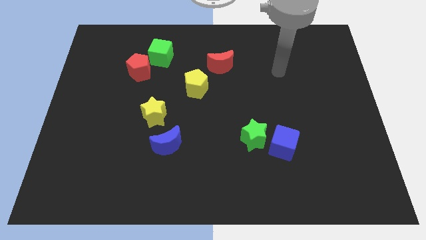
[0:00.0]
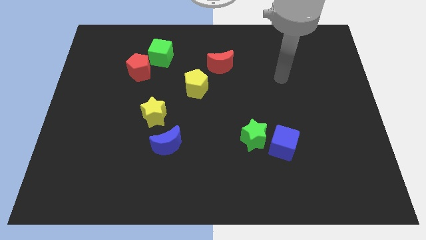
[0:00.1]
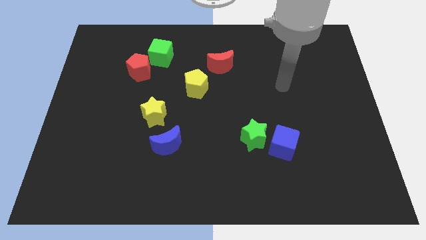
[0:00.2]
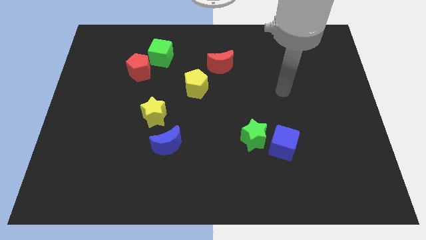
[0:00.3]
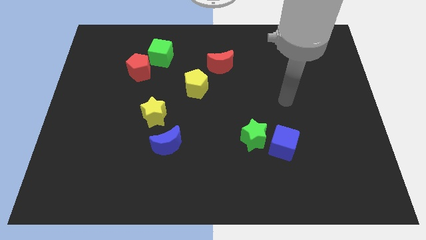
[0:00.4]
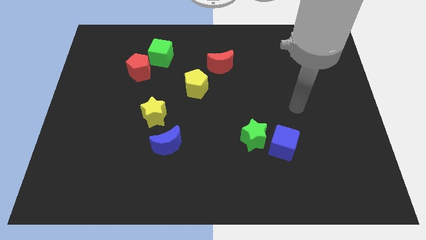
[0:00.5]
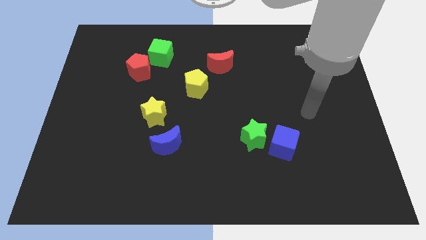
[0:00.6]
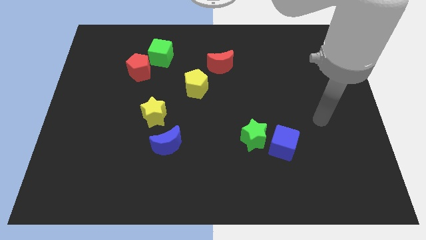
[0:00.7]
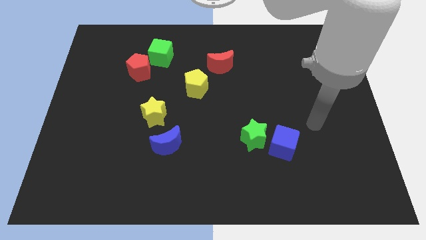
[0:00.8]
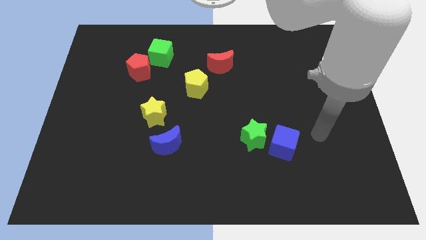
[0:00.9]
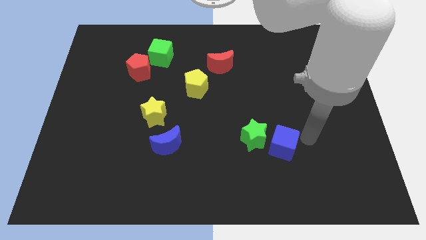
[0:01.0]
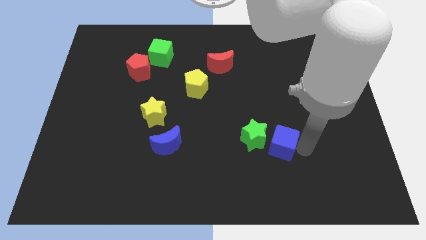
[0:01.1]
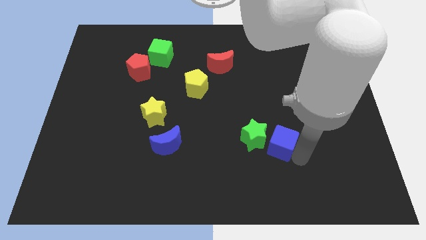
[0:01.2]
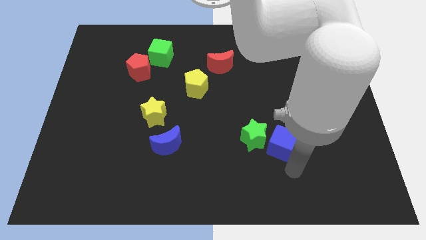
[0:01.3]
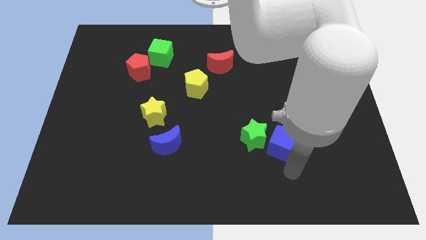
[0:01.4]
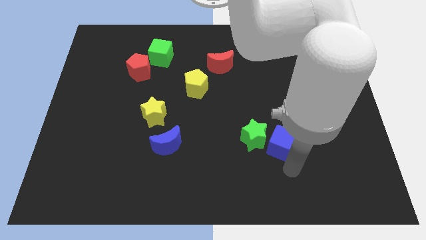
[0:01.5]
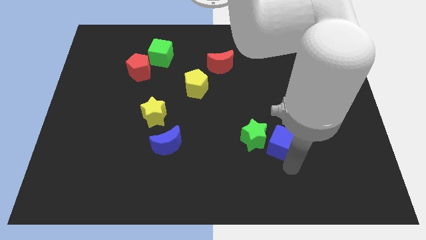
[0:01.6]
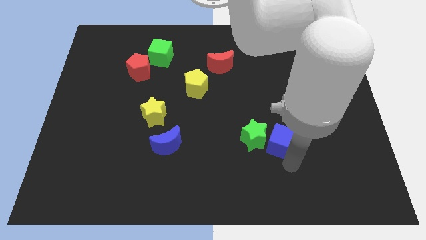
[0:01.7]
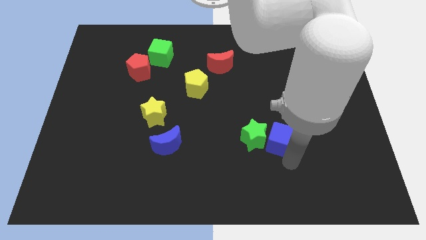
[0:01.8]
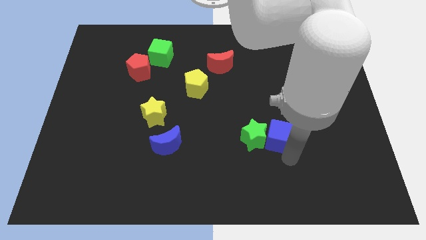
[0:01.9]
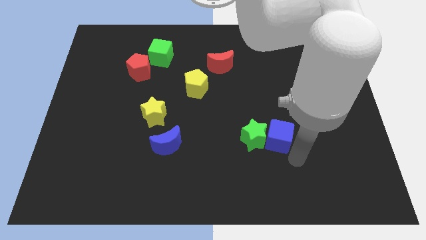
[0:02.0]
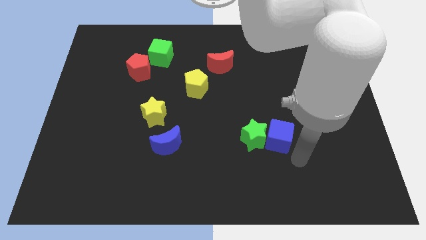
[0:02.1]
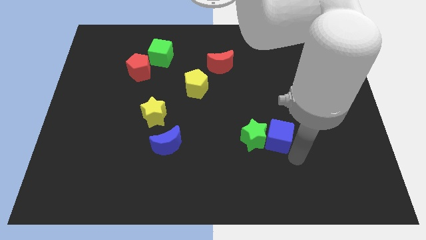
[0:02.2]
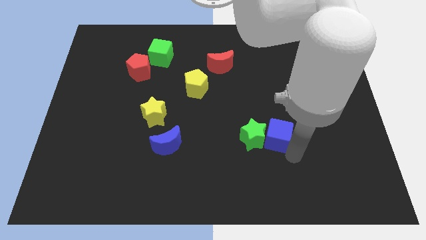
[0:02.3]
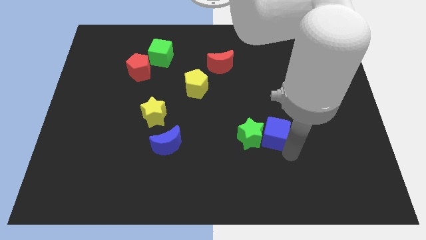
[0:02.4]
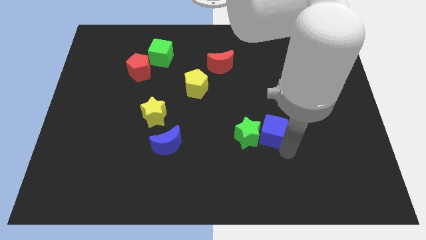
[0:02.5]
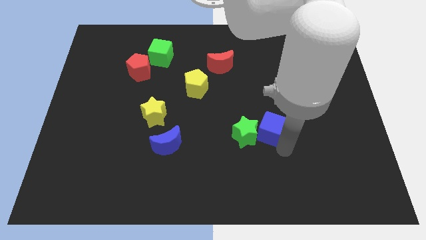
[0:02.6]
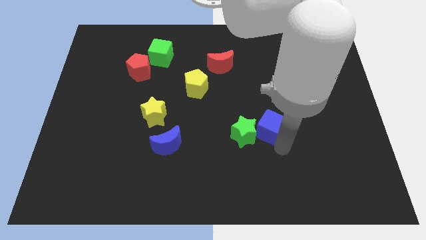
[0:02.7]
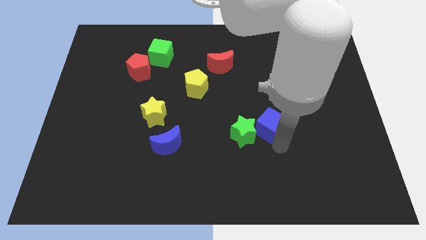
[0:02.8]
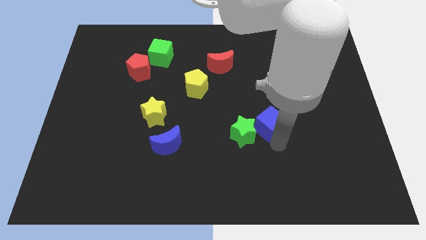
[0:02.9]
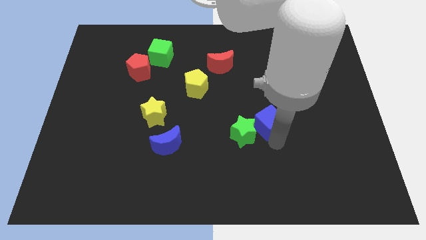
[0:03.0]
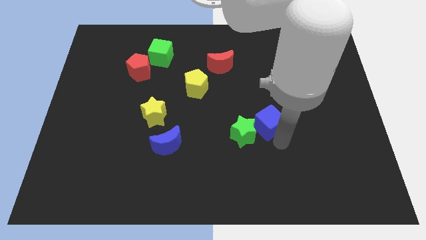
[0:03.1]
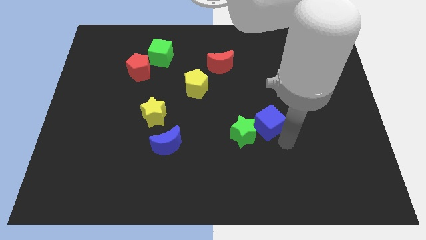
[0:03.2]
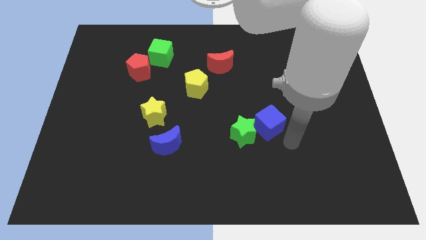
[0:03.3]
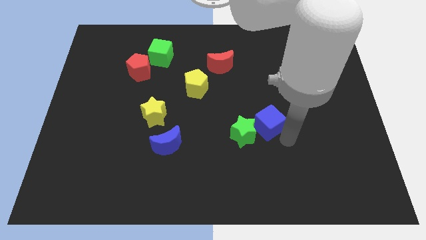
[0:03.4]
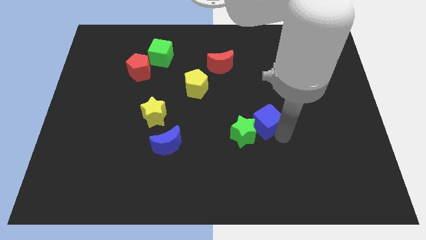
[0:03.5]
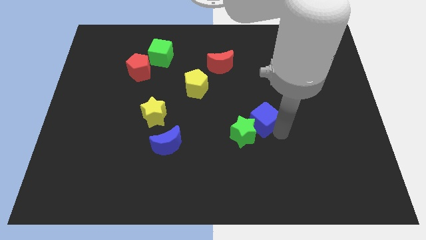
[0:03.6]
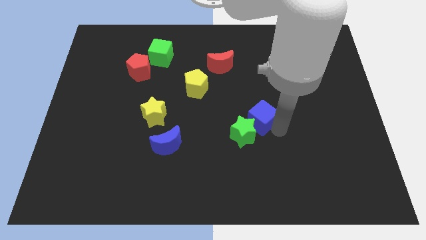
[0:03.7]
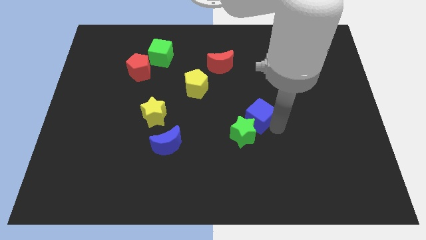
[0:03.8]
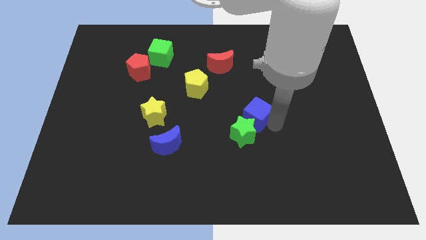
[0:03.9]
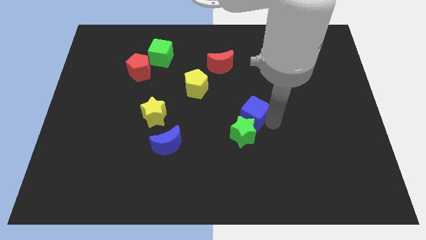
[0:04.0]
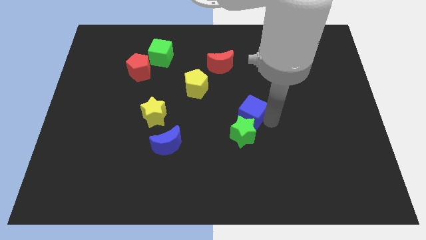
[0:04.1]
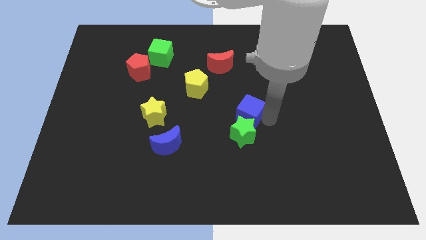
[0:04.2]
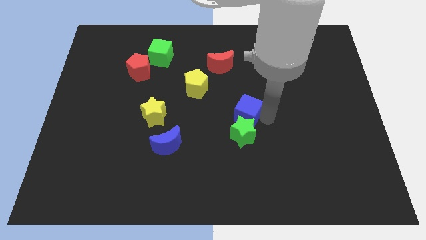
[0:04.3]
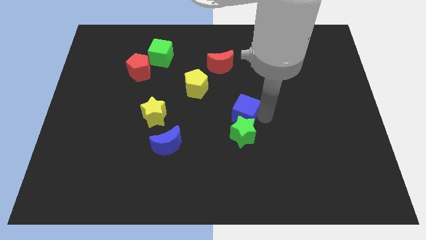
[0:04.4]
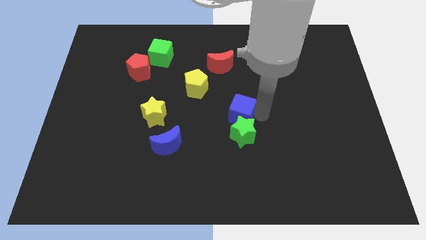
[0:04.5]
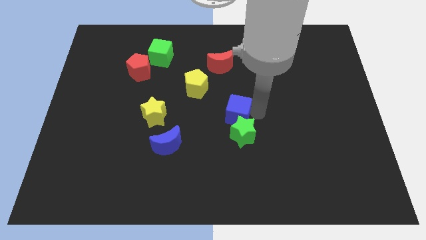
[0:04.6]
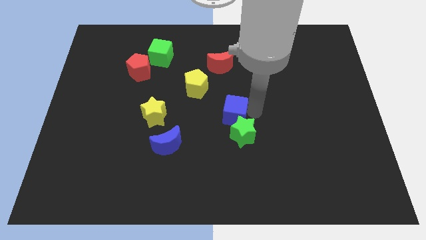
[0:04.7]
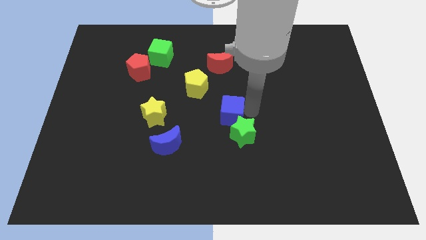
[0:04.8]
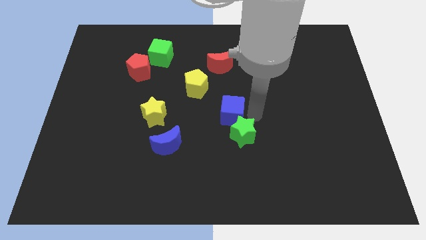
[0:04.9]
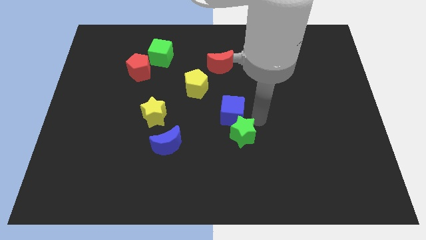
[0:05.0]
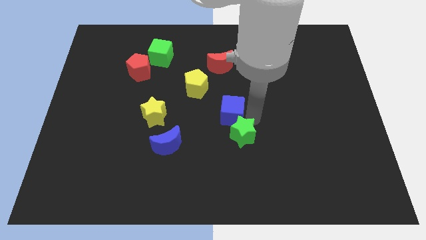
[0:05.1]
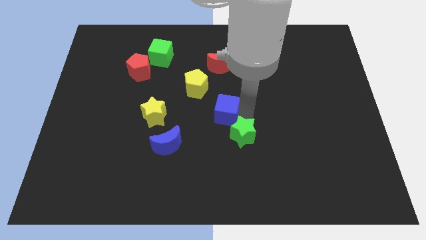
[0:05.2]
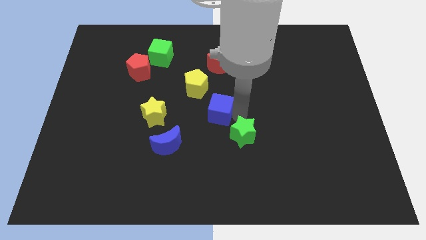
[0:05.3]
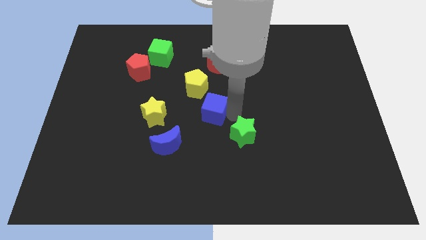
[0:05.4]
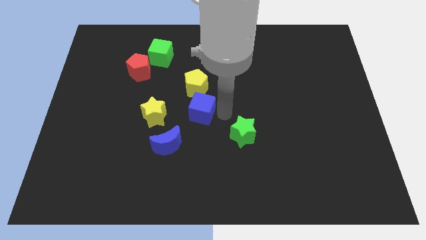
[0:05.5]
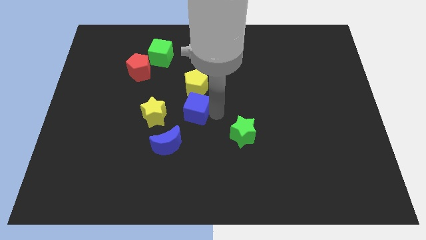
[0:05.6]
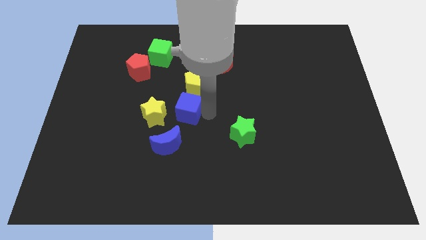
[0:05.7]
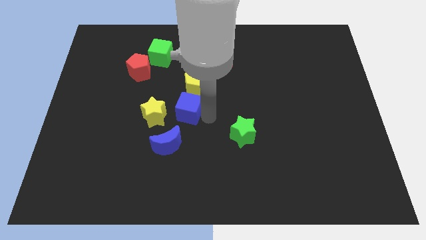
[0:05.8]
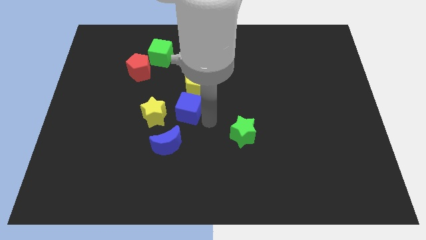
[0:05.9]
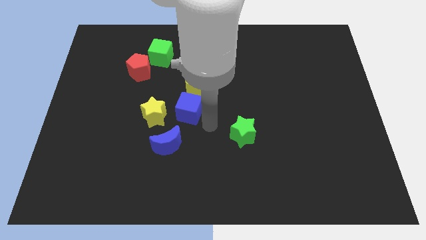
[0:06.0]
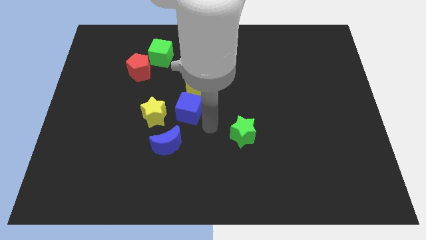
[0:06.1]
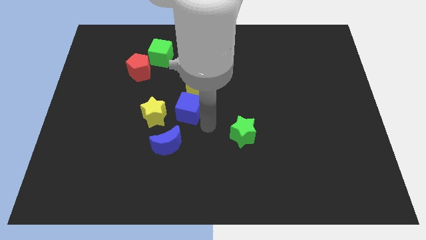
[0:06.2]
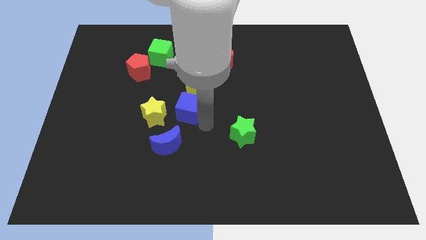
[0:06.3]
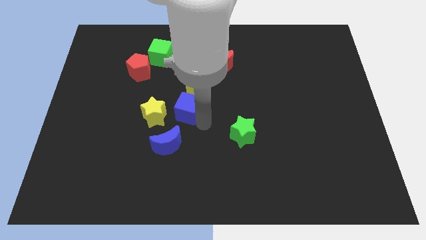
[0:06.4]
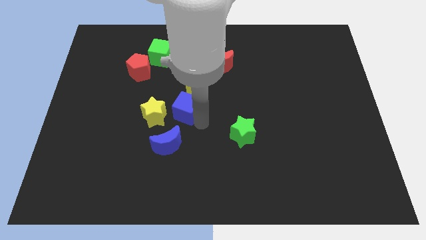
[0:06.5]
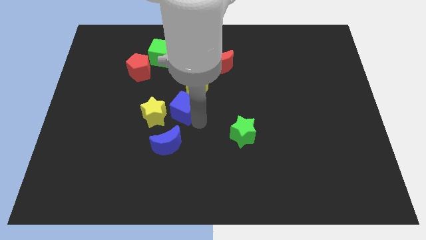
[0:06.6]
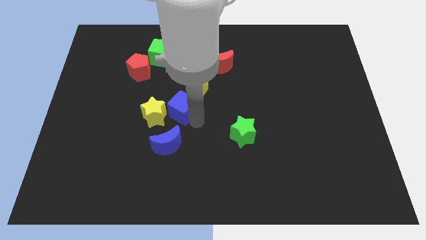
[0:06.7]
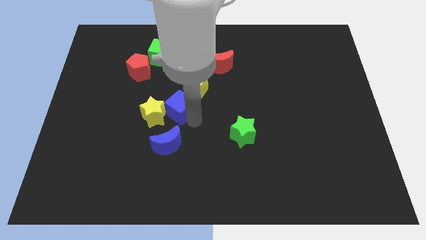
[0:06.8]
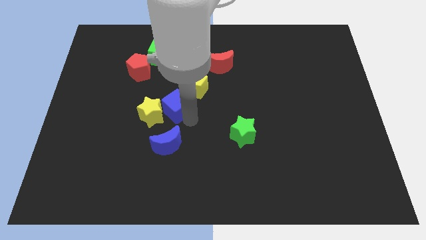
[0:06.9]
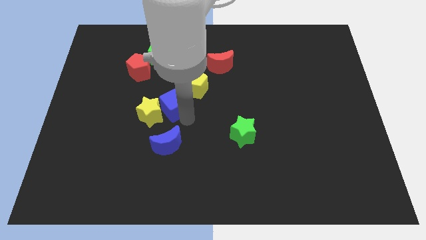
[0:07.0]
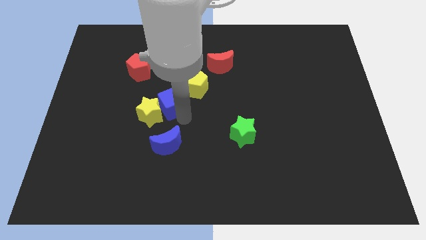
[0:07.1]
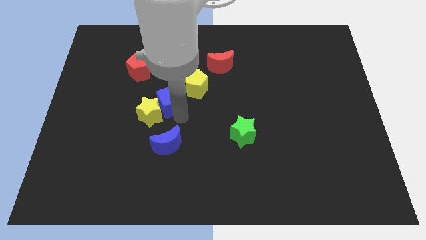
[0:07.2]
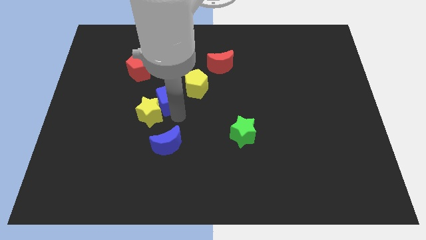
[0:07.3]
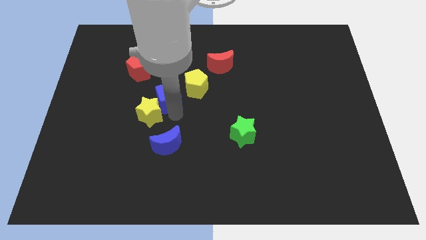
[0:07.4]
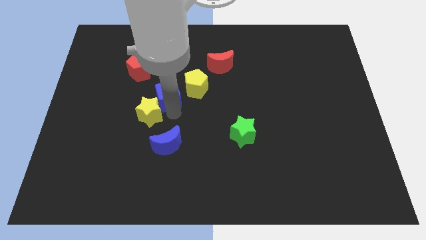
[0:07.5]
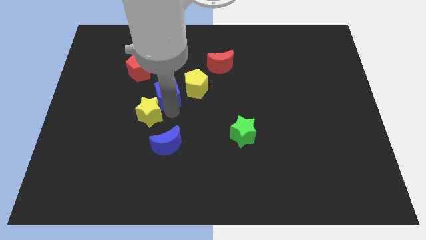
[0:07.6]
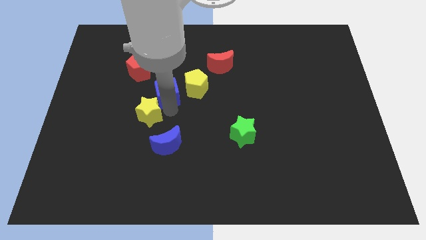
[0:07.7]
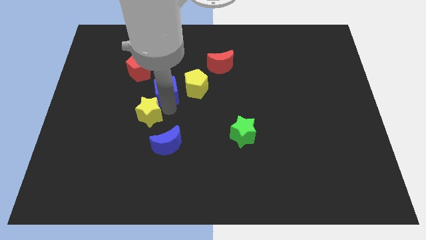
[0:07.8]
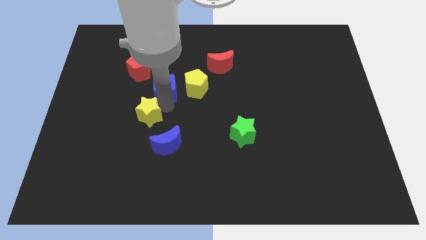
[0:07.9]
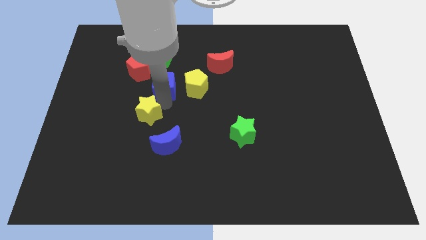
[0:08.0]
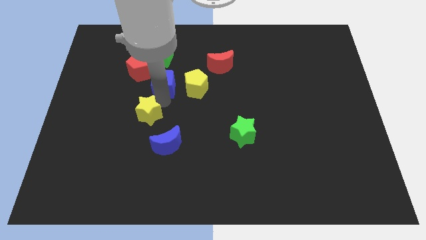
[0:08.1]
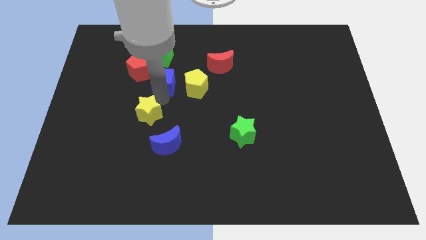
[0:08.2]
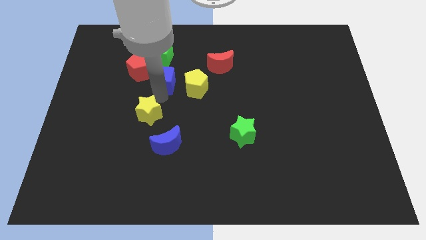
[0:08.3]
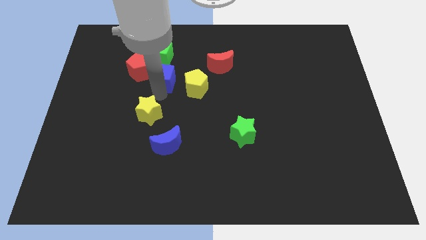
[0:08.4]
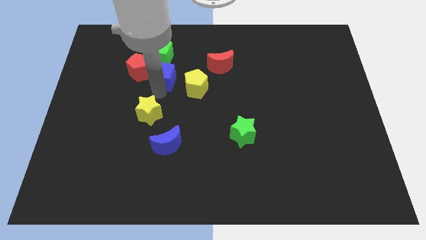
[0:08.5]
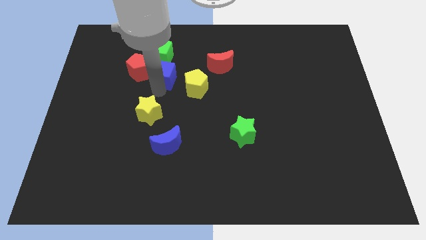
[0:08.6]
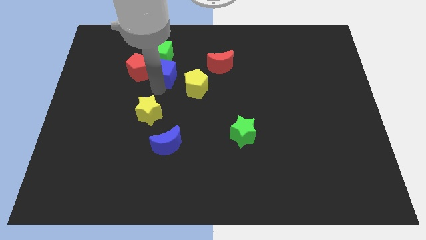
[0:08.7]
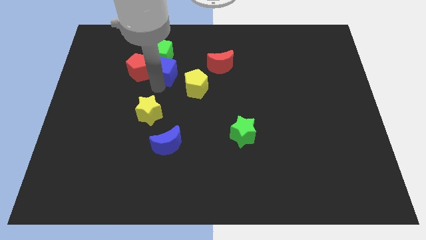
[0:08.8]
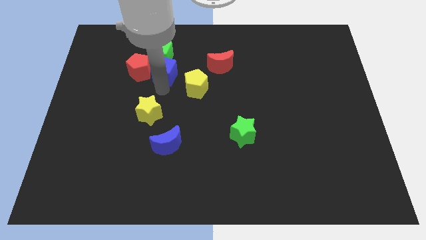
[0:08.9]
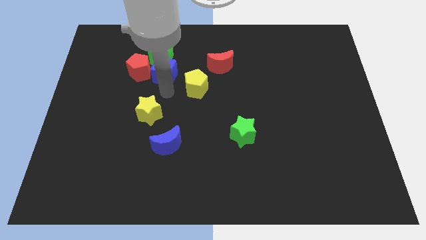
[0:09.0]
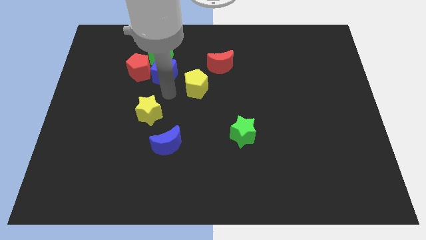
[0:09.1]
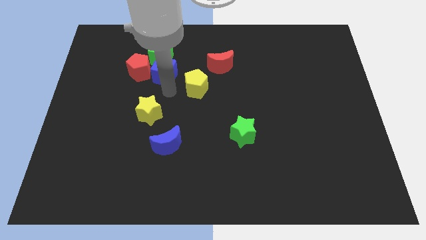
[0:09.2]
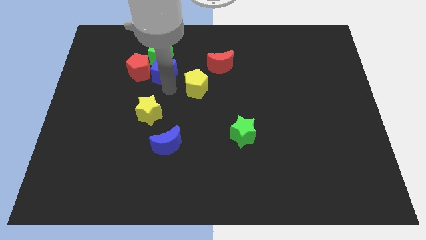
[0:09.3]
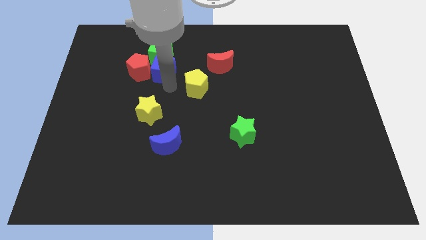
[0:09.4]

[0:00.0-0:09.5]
push the blue cube close to the green cube
